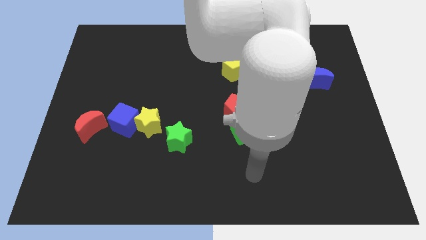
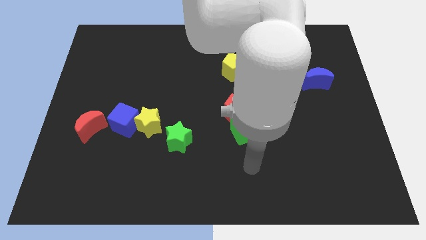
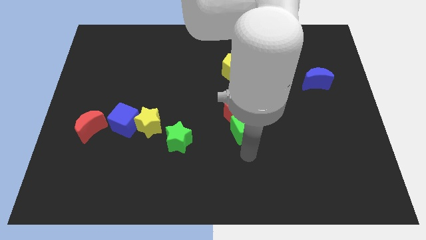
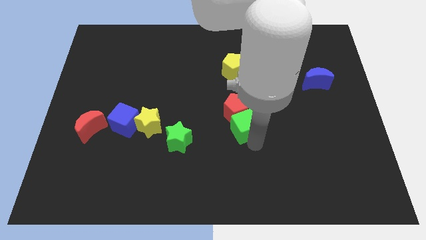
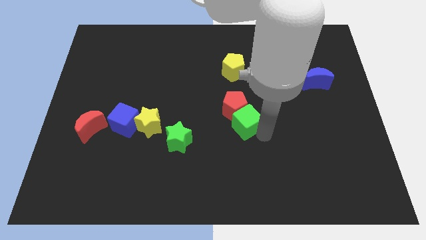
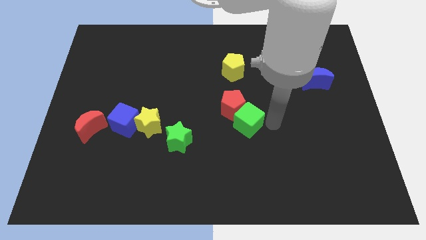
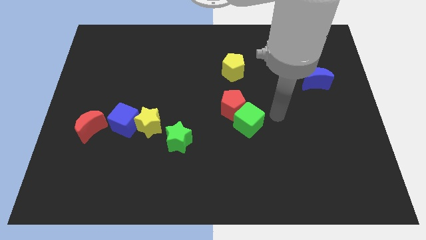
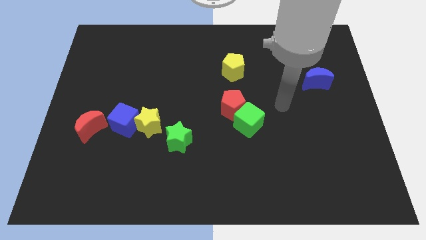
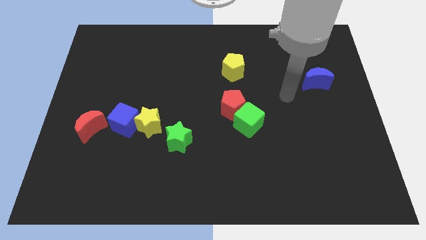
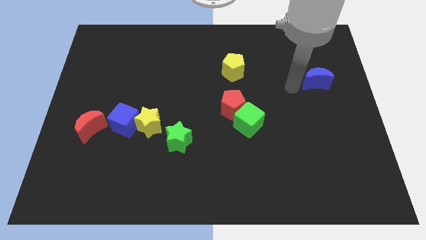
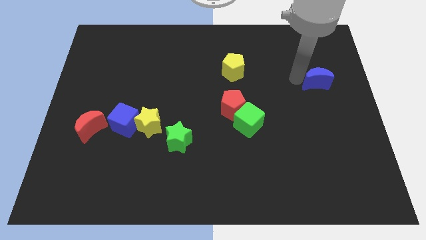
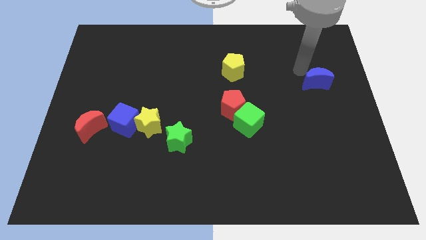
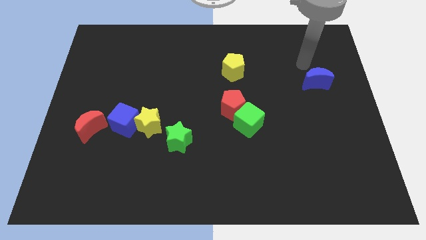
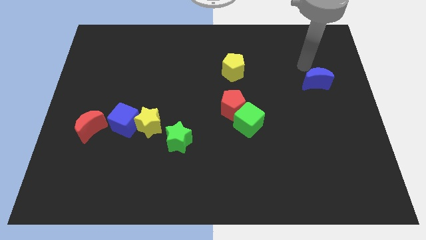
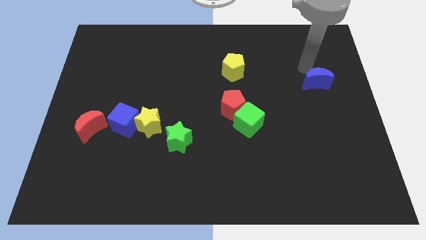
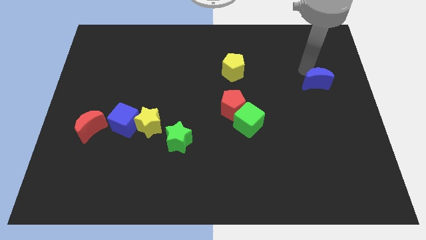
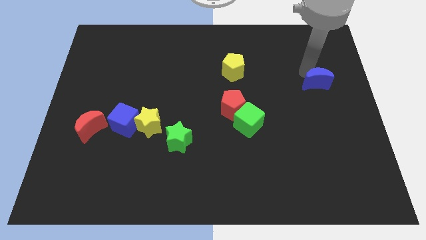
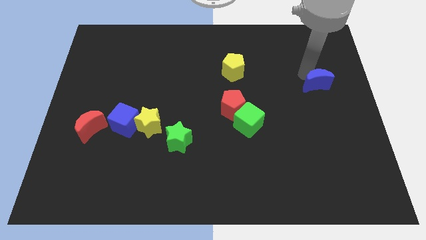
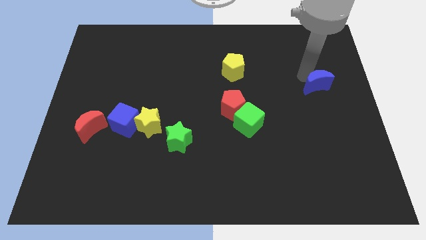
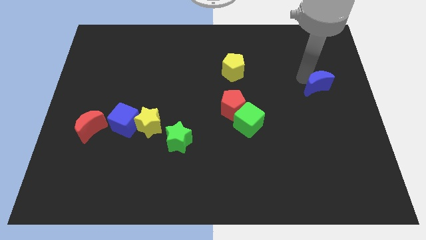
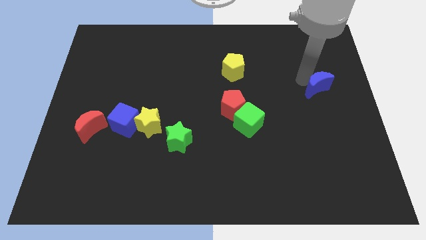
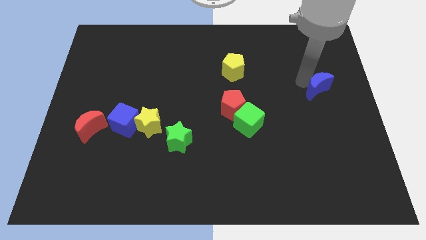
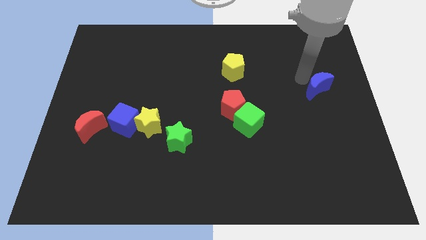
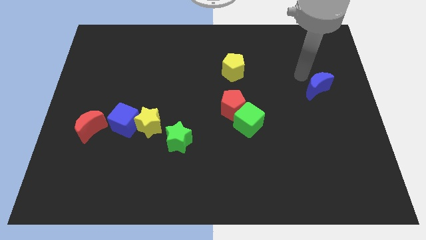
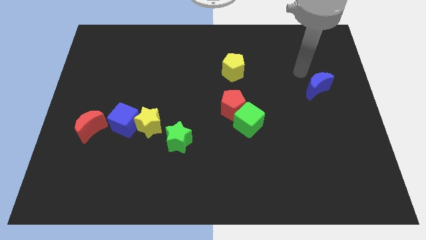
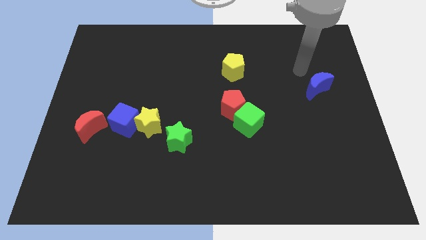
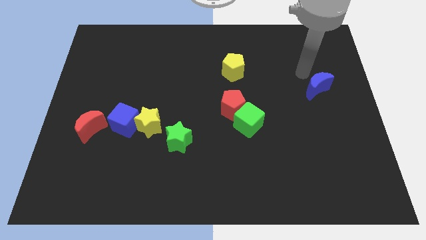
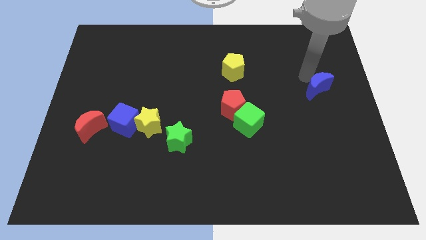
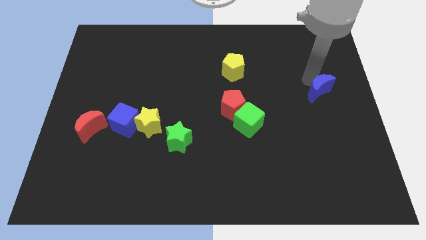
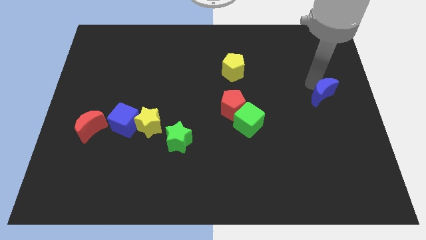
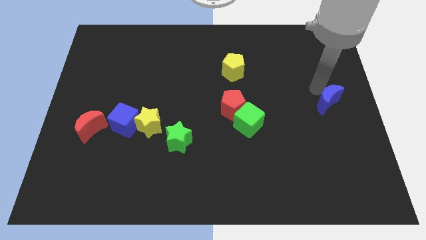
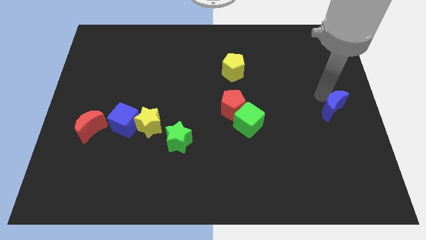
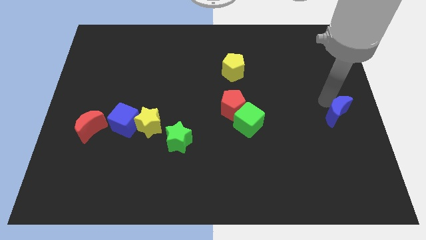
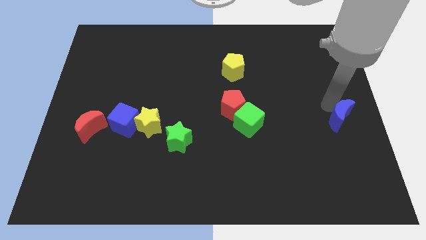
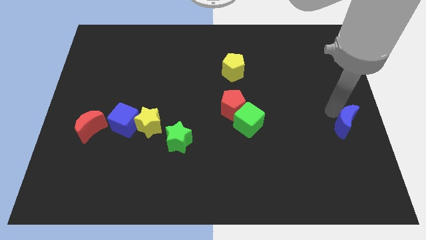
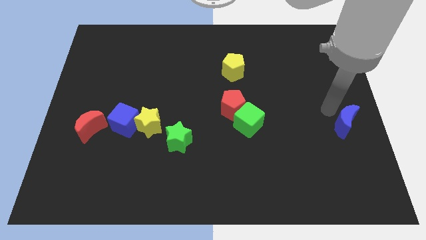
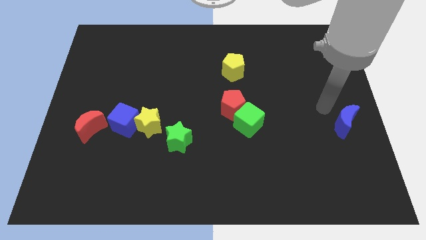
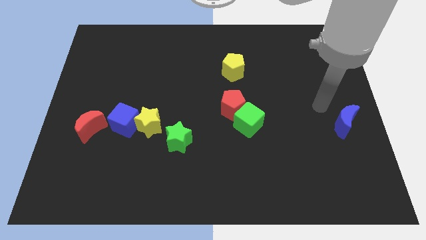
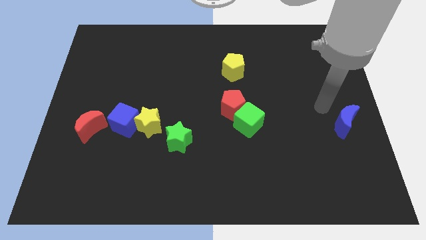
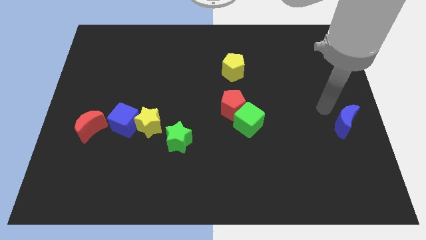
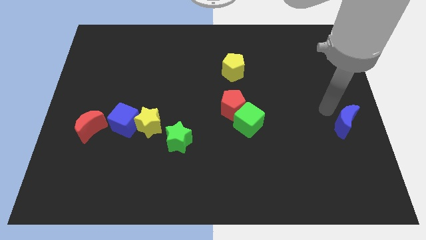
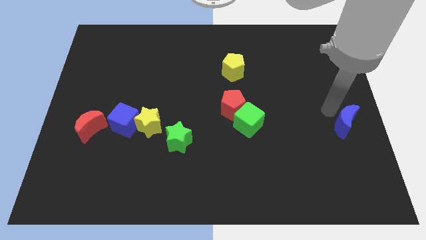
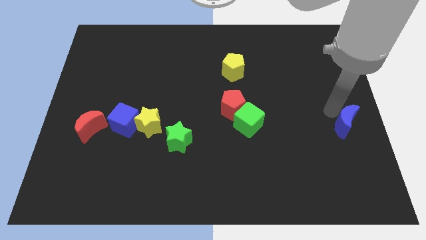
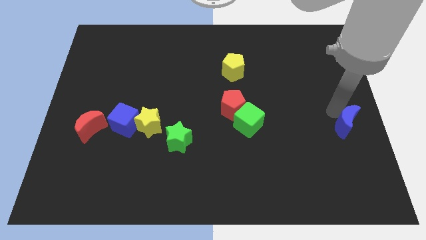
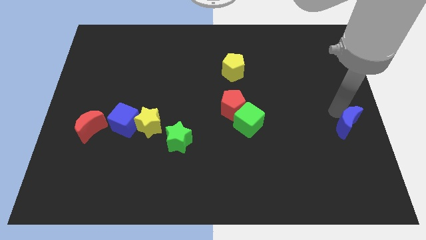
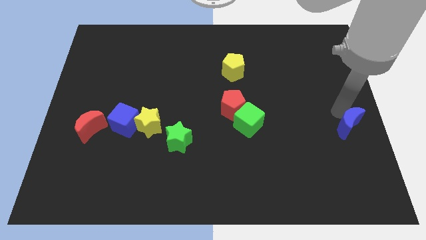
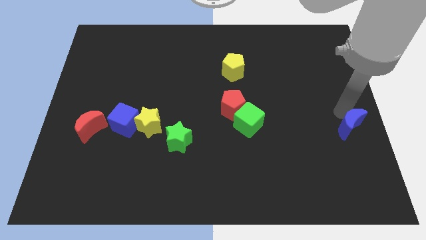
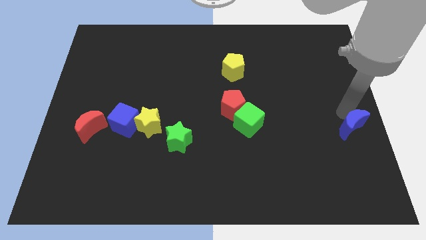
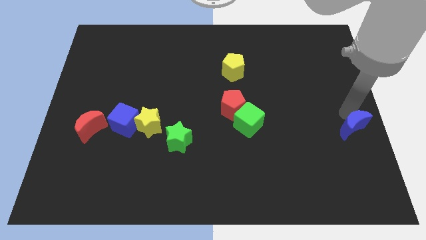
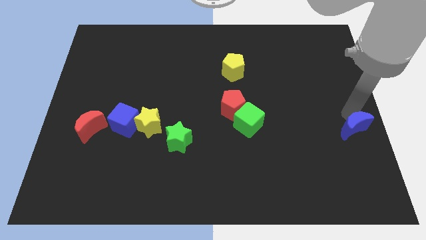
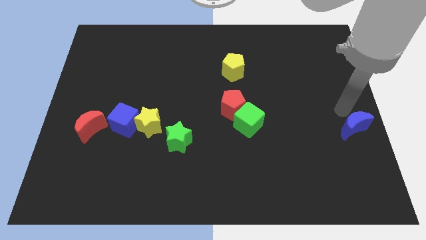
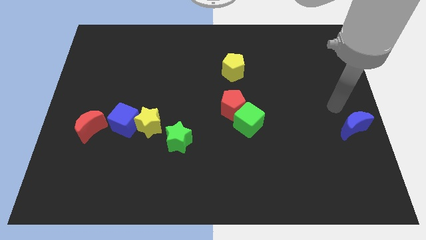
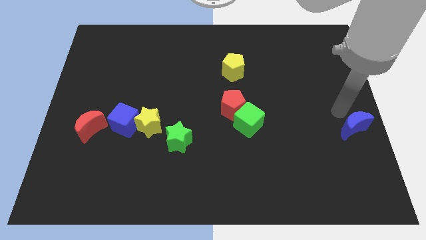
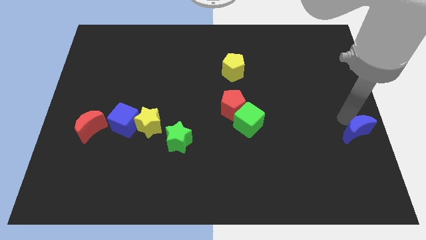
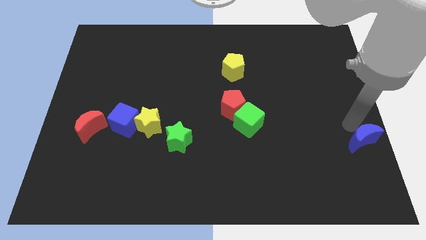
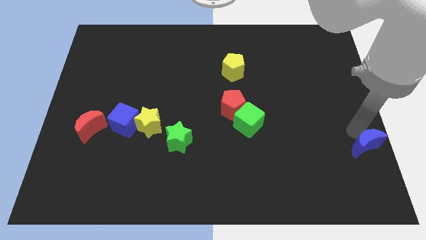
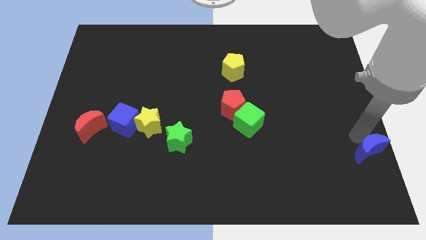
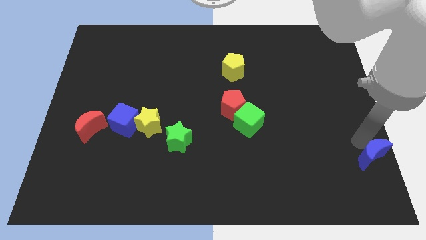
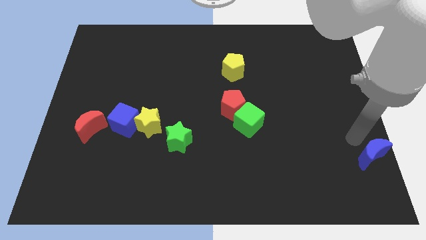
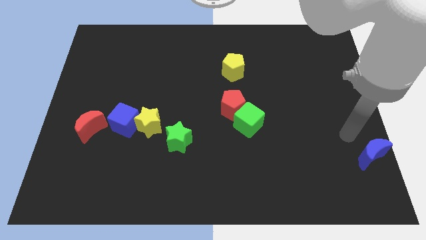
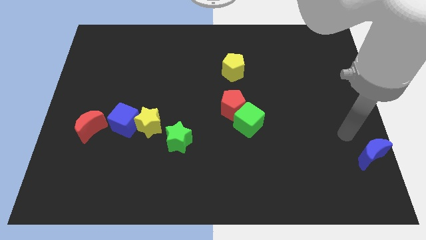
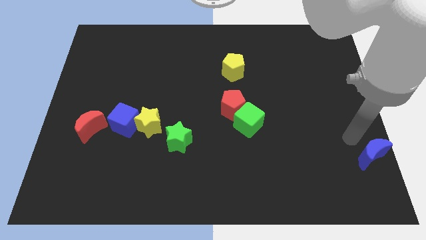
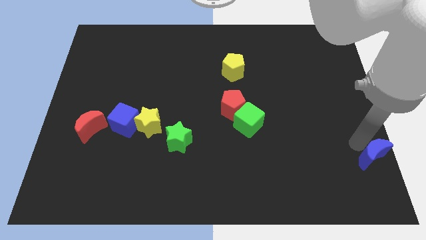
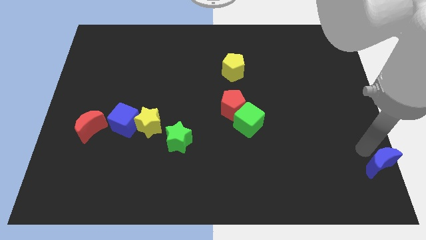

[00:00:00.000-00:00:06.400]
slide the blue moon to the bottom right
